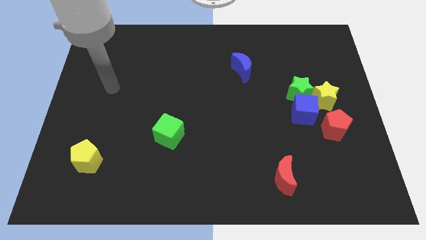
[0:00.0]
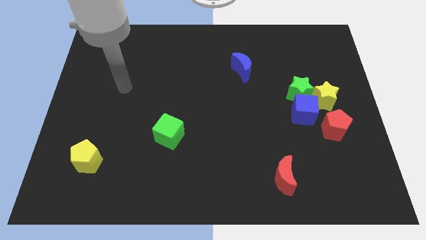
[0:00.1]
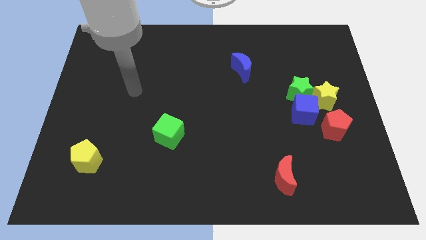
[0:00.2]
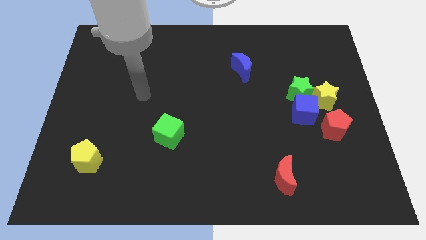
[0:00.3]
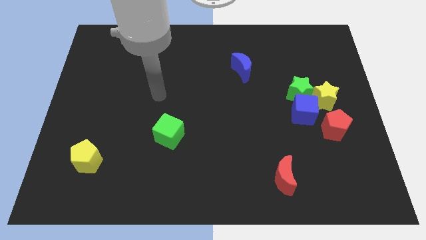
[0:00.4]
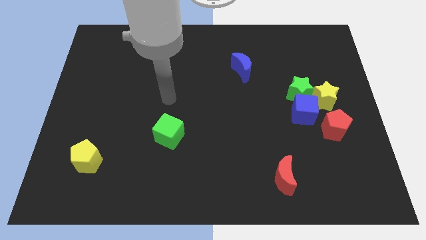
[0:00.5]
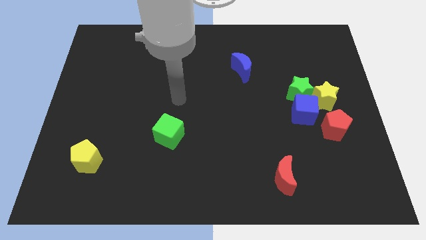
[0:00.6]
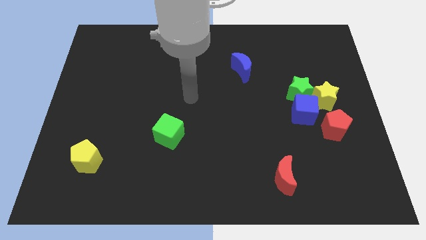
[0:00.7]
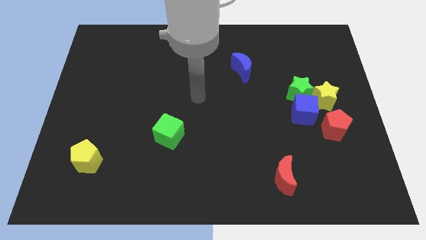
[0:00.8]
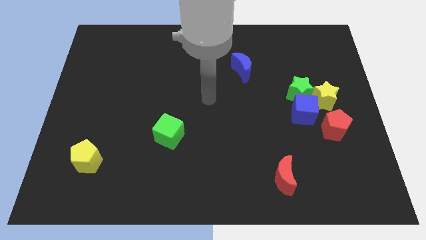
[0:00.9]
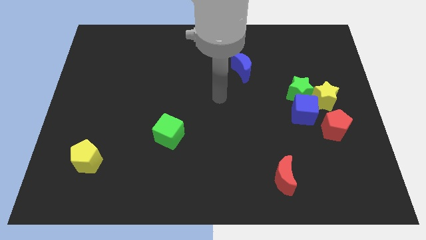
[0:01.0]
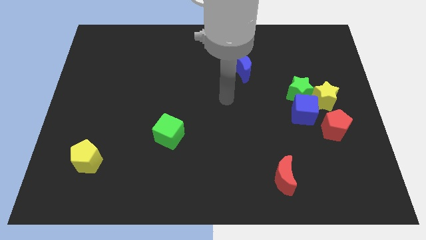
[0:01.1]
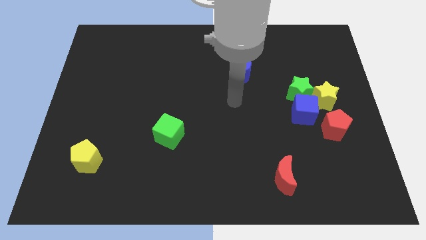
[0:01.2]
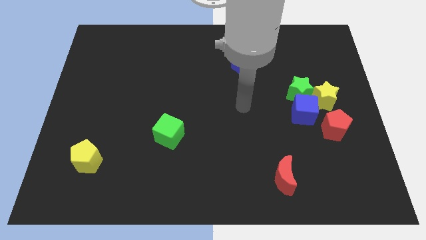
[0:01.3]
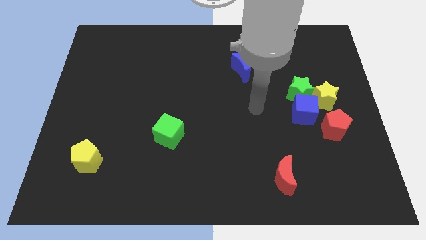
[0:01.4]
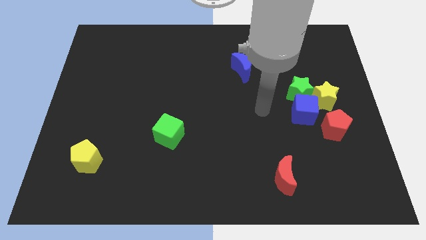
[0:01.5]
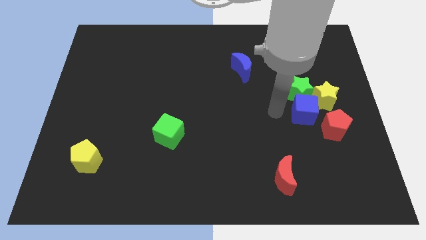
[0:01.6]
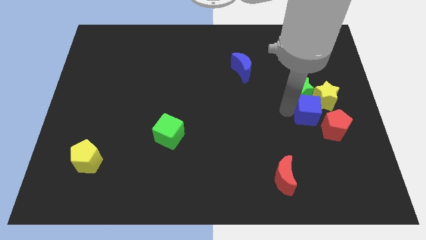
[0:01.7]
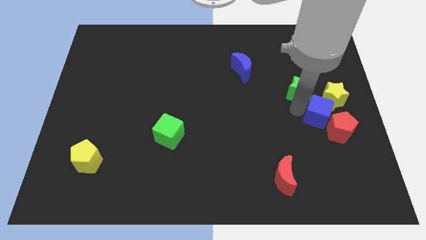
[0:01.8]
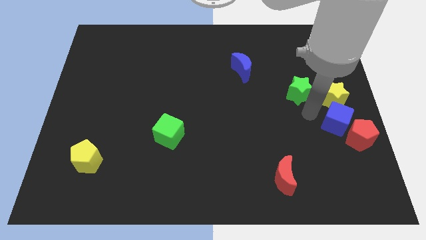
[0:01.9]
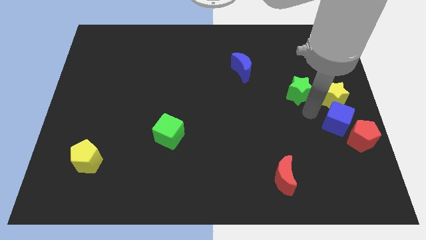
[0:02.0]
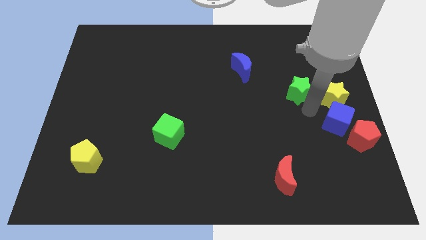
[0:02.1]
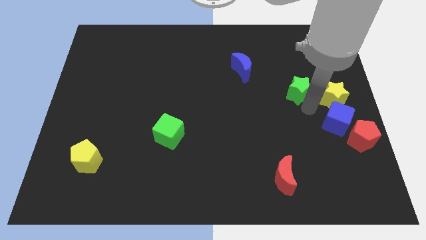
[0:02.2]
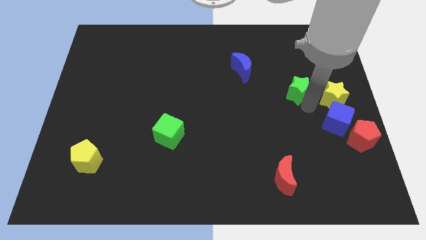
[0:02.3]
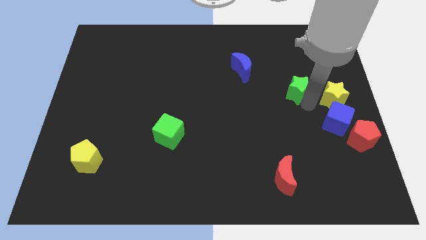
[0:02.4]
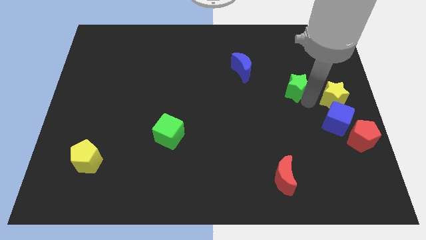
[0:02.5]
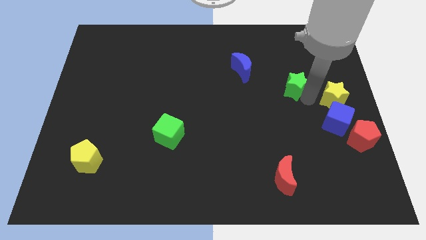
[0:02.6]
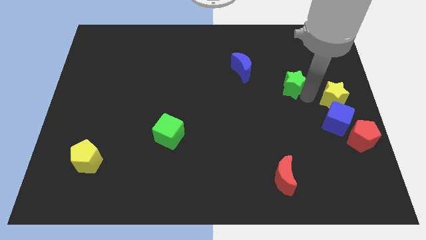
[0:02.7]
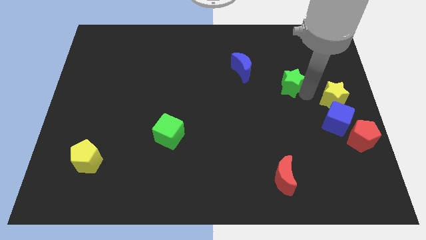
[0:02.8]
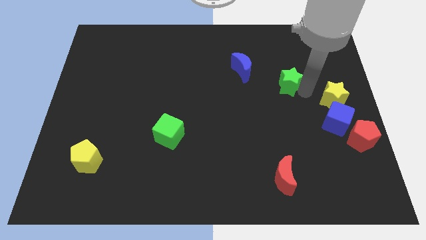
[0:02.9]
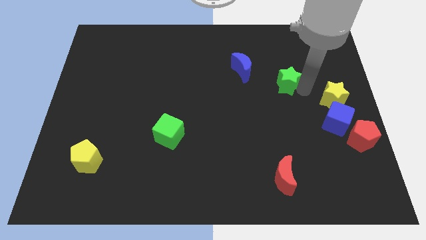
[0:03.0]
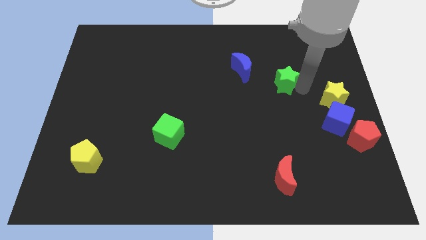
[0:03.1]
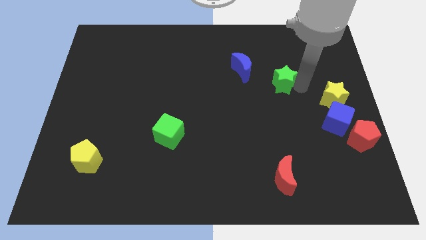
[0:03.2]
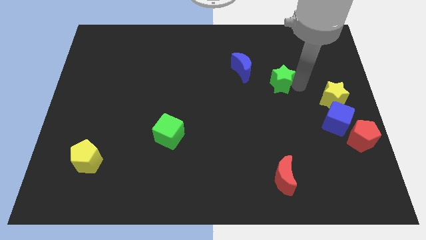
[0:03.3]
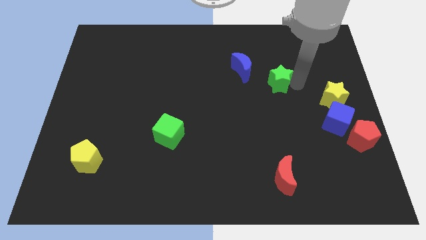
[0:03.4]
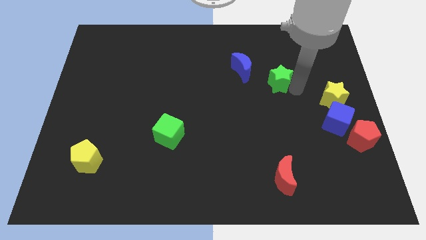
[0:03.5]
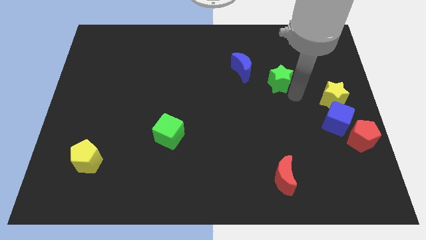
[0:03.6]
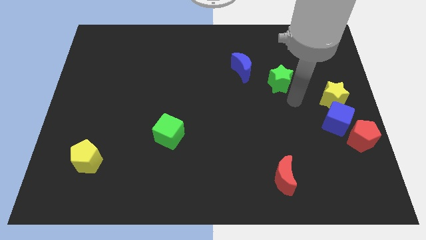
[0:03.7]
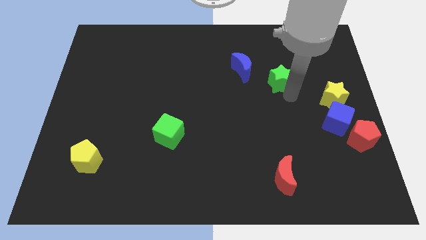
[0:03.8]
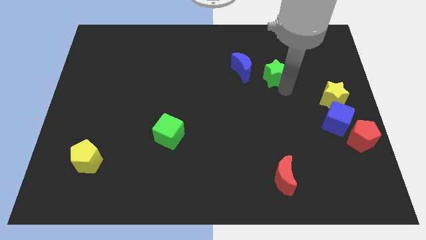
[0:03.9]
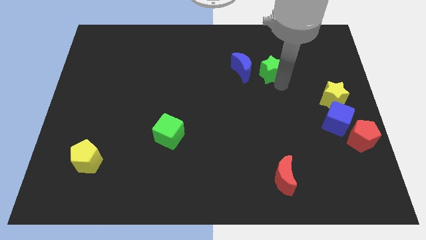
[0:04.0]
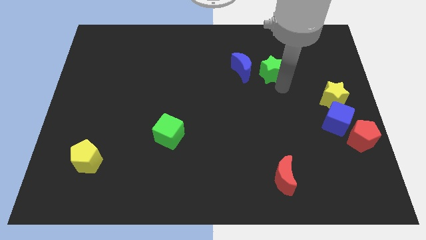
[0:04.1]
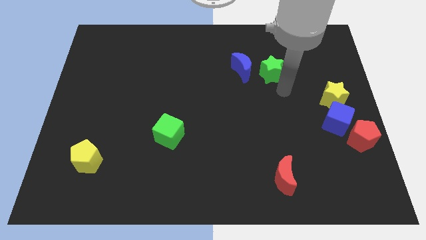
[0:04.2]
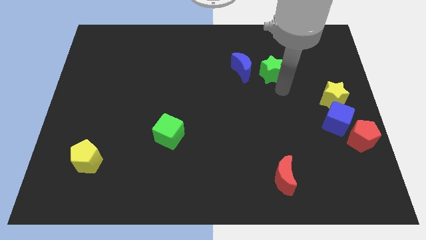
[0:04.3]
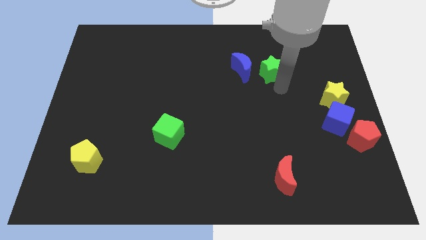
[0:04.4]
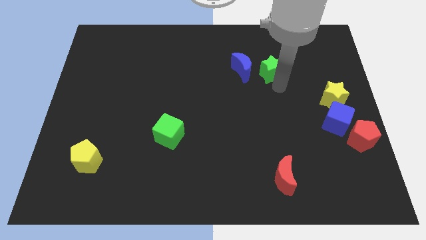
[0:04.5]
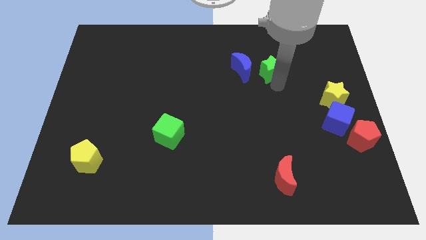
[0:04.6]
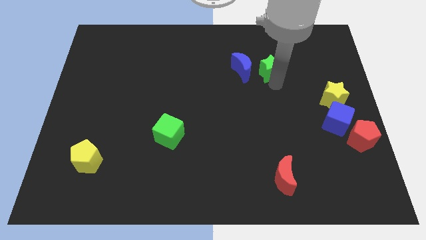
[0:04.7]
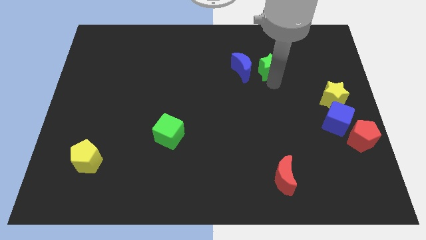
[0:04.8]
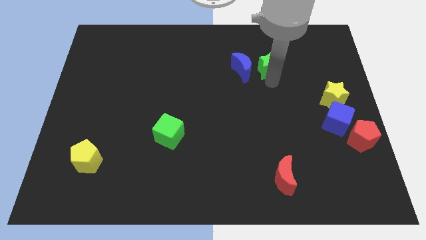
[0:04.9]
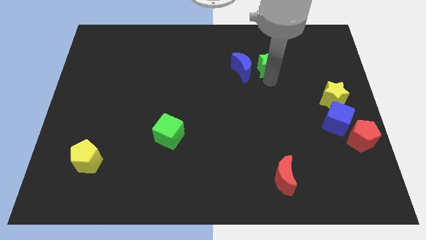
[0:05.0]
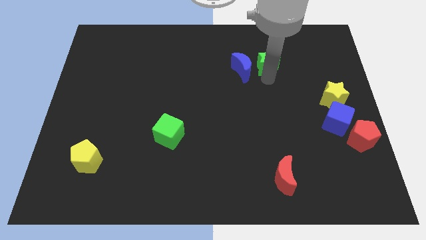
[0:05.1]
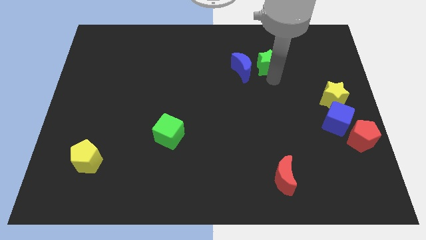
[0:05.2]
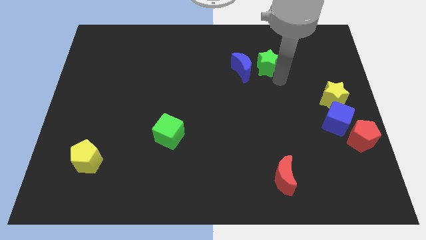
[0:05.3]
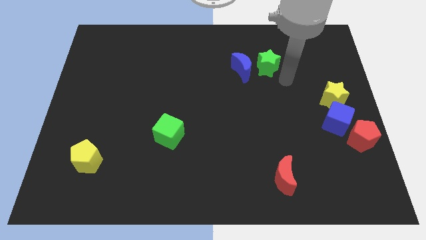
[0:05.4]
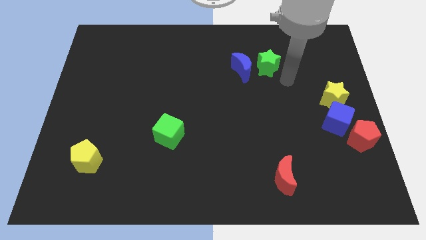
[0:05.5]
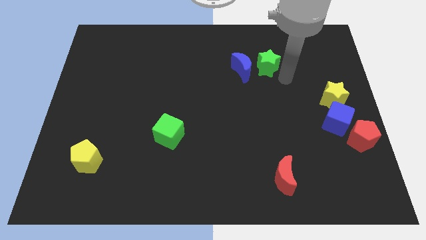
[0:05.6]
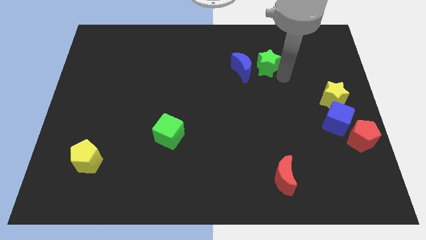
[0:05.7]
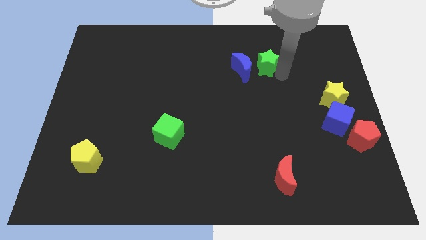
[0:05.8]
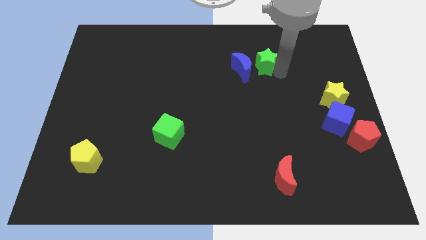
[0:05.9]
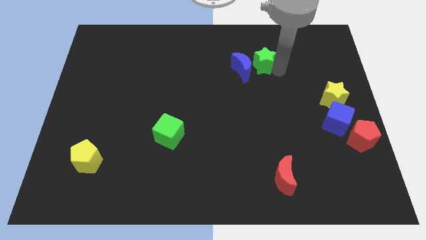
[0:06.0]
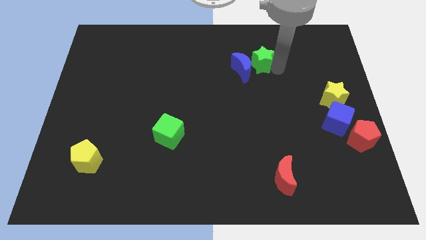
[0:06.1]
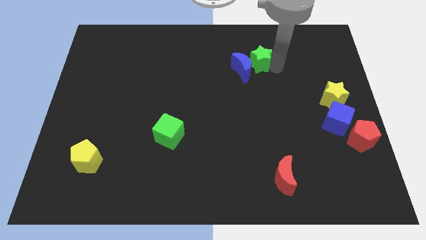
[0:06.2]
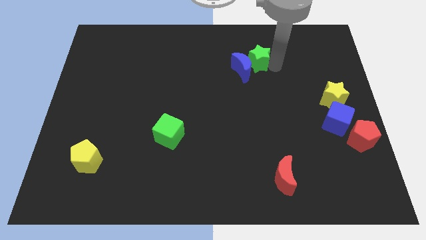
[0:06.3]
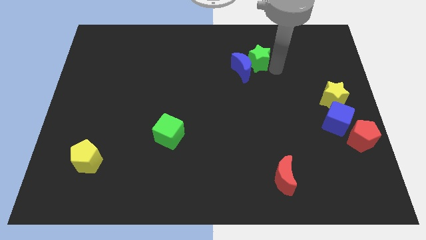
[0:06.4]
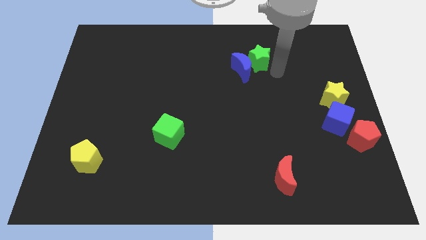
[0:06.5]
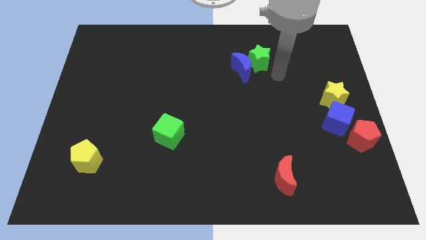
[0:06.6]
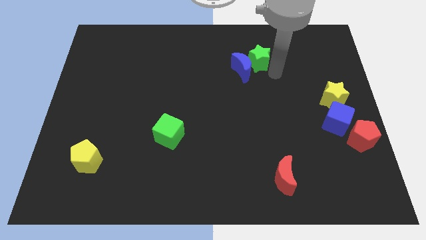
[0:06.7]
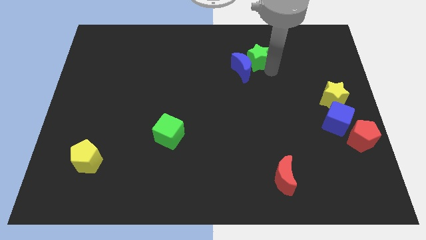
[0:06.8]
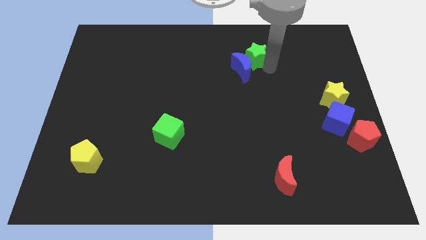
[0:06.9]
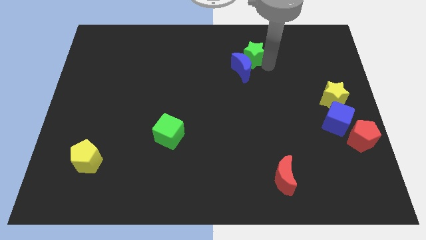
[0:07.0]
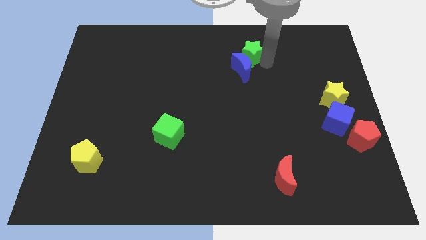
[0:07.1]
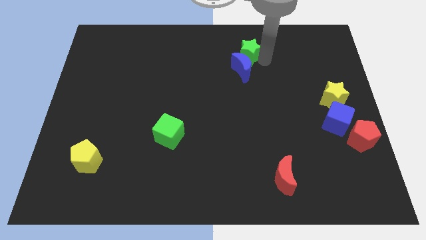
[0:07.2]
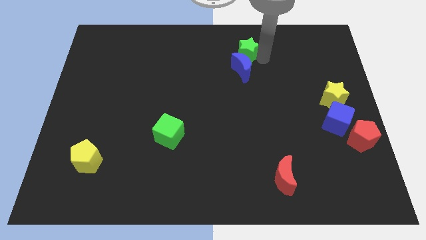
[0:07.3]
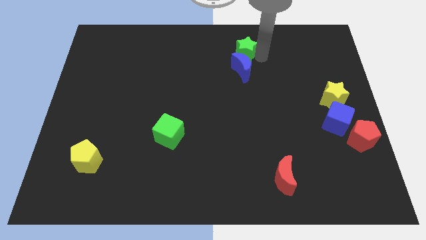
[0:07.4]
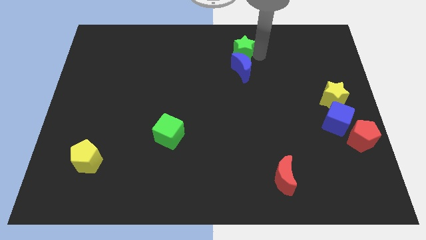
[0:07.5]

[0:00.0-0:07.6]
move the green star to the top left side of the blue moon
